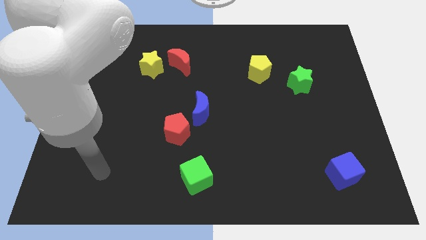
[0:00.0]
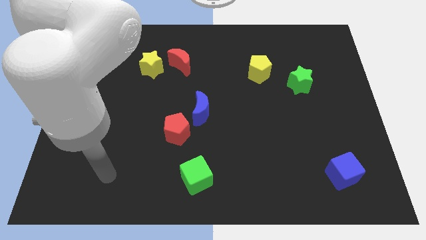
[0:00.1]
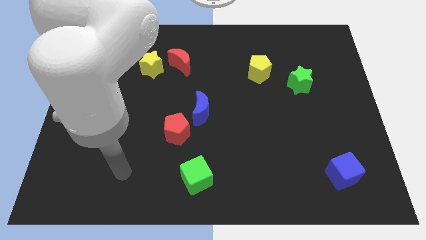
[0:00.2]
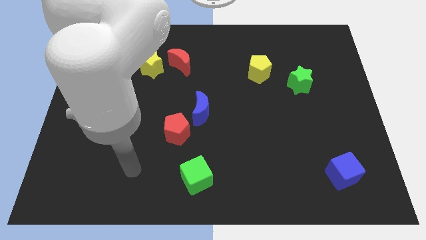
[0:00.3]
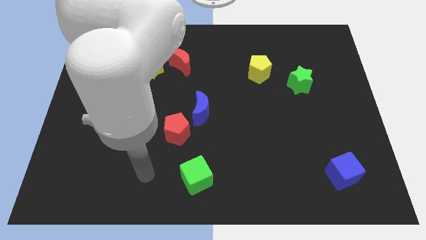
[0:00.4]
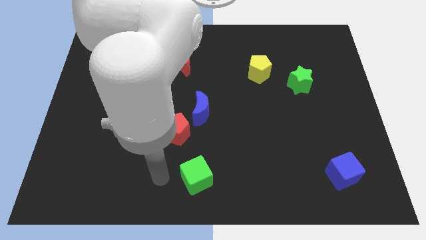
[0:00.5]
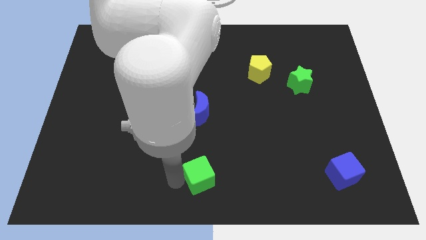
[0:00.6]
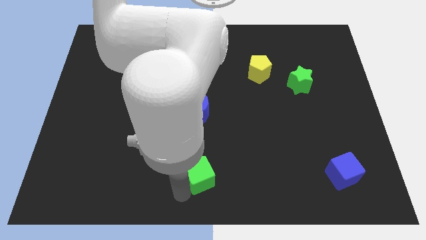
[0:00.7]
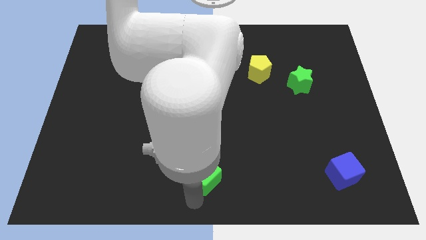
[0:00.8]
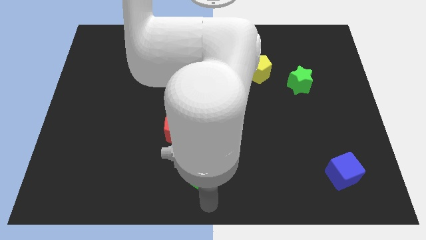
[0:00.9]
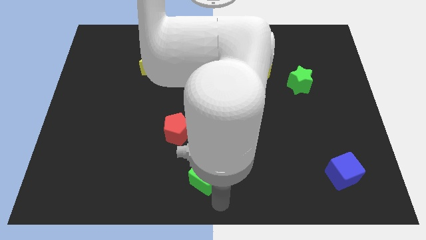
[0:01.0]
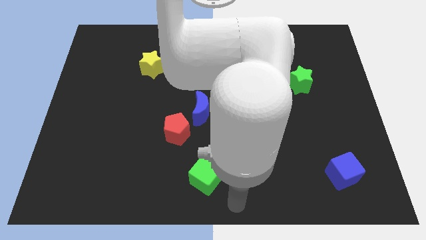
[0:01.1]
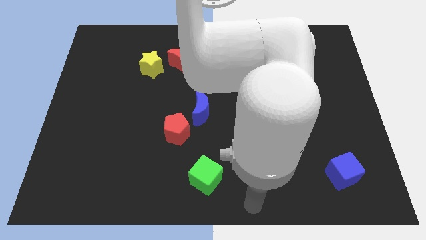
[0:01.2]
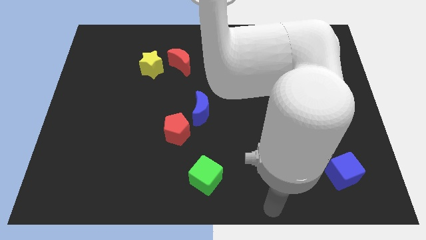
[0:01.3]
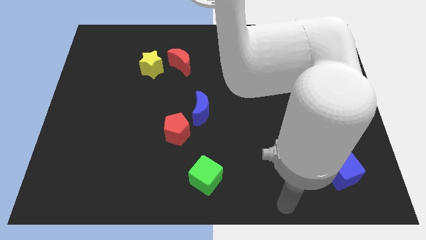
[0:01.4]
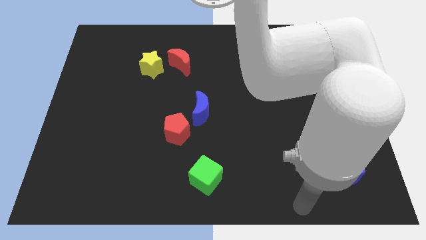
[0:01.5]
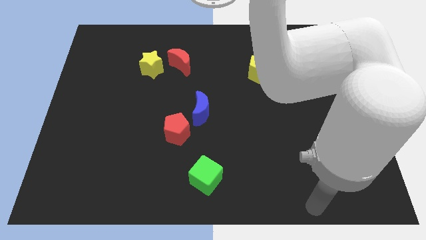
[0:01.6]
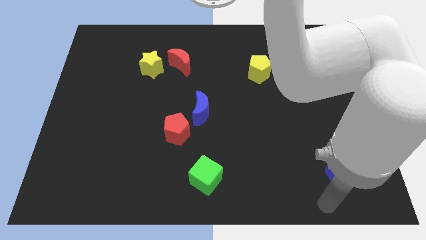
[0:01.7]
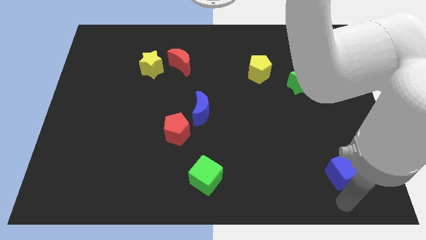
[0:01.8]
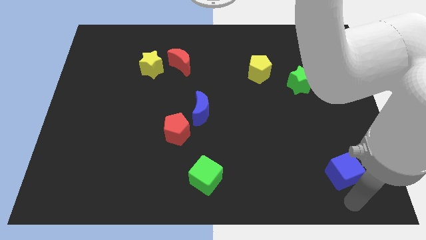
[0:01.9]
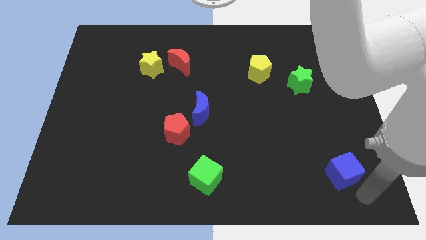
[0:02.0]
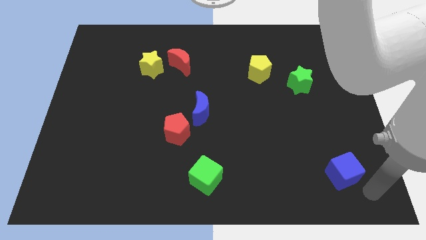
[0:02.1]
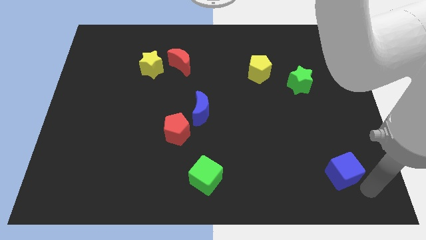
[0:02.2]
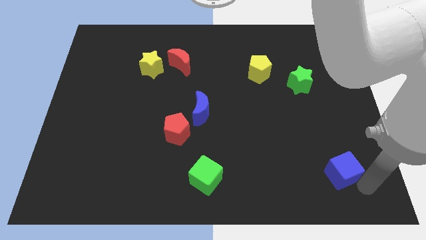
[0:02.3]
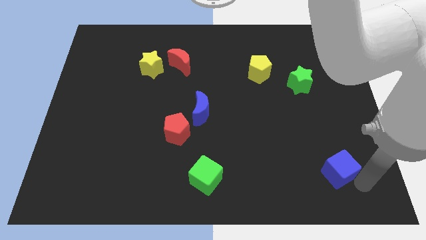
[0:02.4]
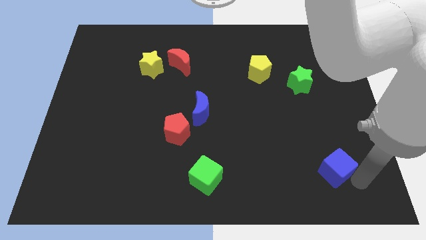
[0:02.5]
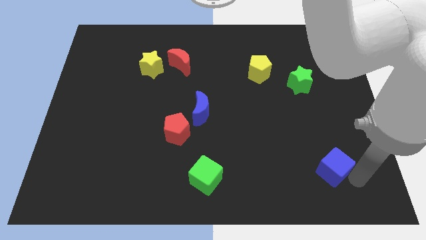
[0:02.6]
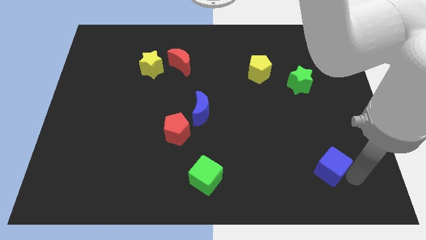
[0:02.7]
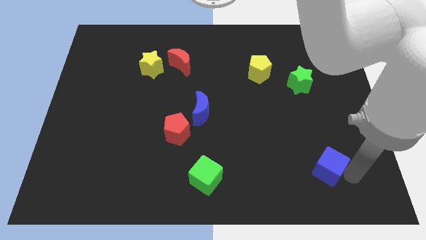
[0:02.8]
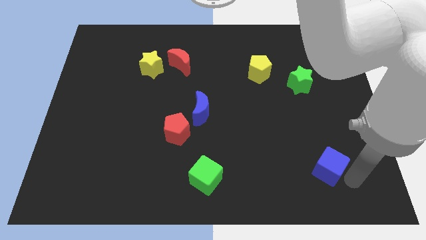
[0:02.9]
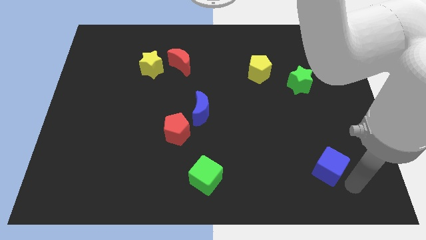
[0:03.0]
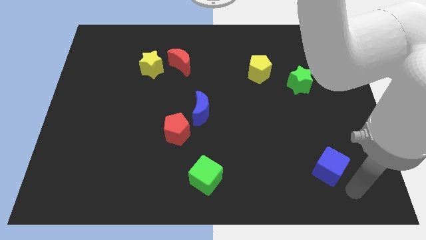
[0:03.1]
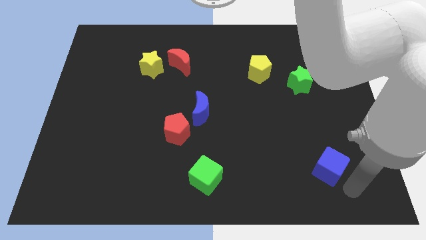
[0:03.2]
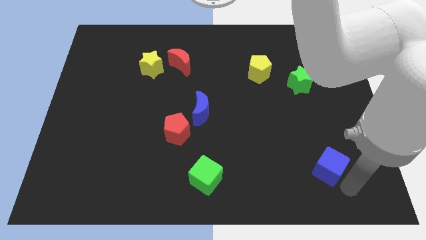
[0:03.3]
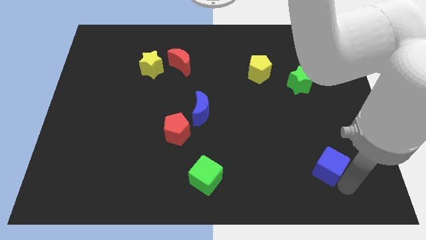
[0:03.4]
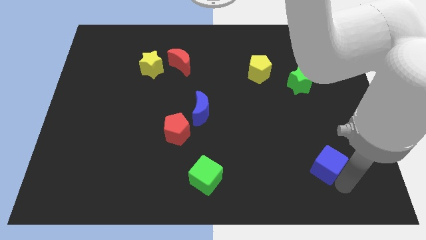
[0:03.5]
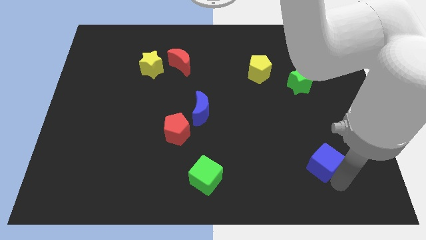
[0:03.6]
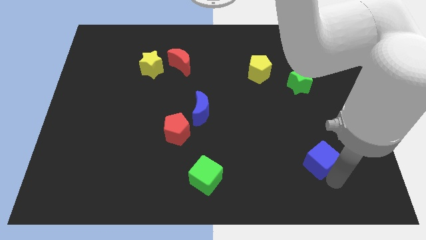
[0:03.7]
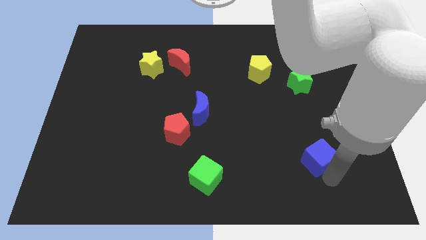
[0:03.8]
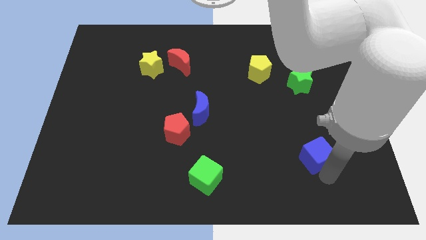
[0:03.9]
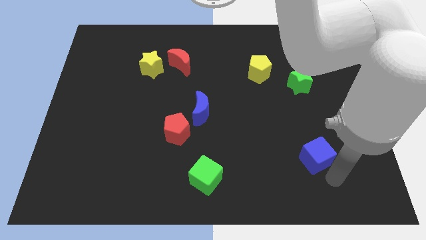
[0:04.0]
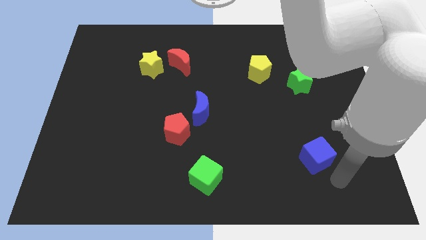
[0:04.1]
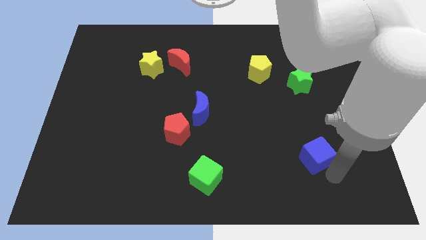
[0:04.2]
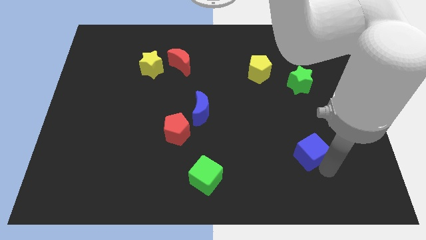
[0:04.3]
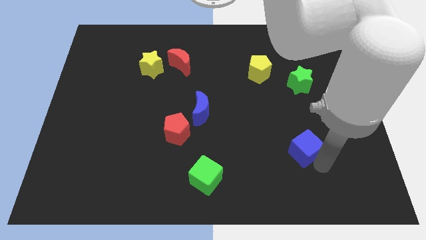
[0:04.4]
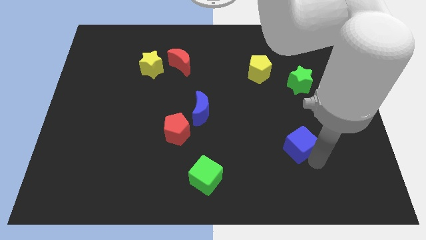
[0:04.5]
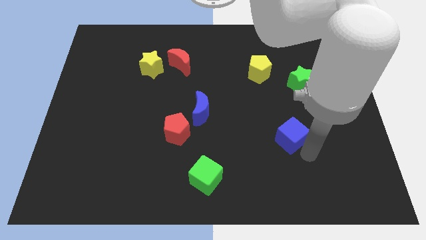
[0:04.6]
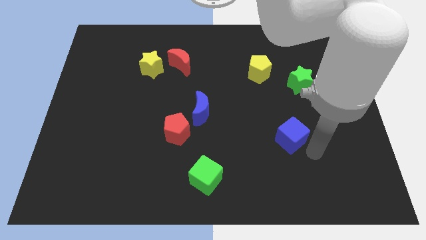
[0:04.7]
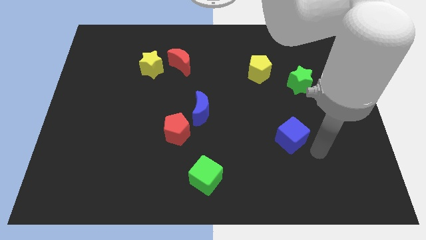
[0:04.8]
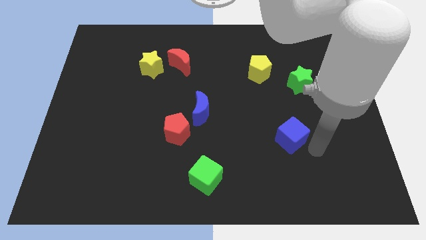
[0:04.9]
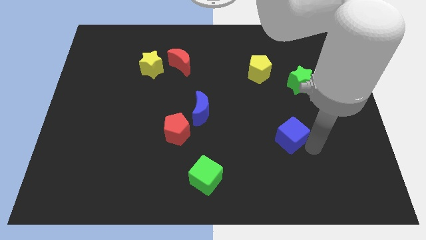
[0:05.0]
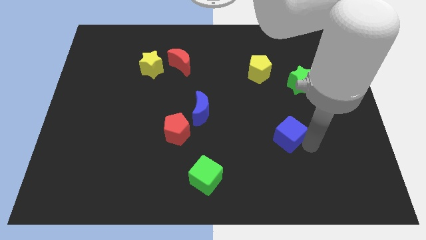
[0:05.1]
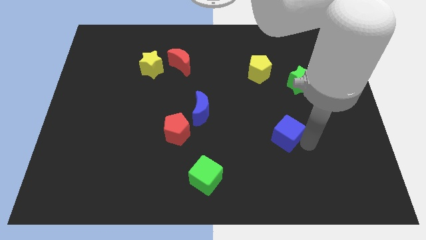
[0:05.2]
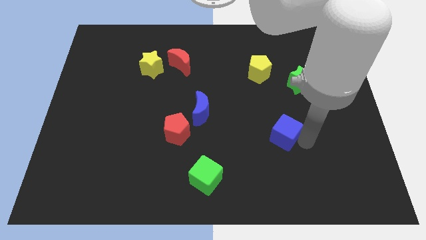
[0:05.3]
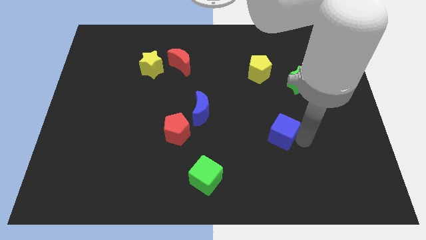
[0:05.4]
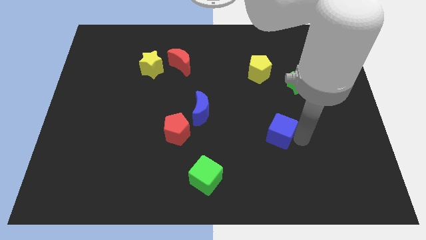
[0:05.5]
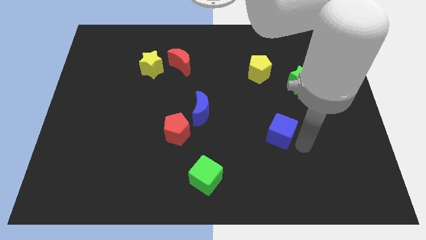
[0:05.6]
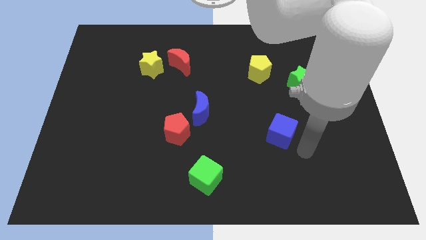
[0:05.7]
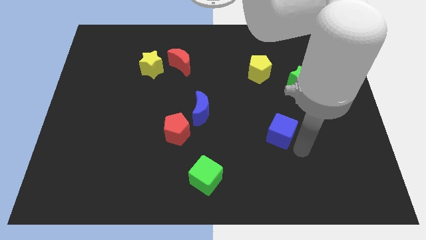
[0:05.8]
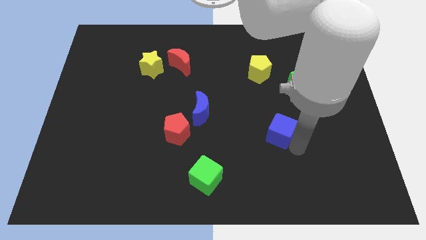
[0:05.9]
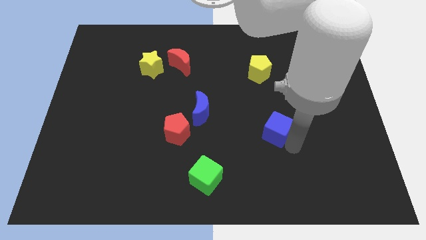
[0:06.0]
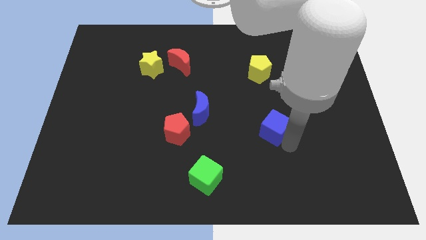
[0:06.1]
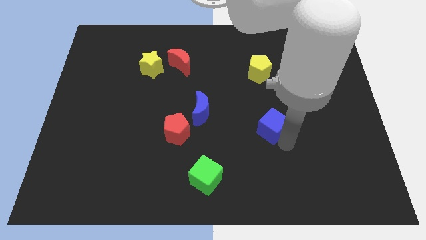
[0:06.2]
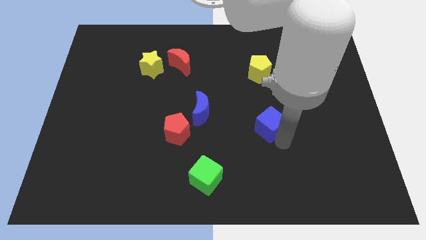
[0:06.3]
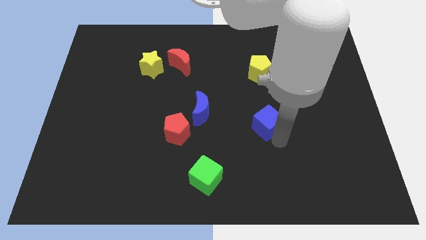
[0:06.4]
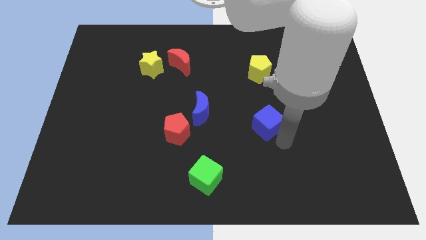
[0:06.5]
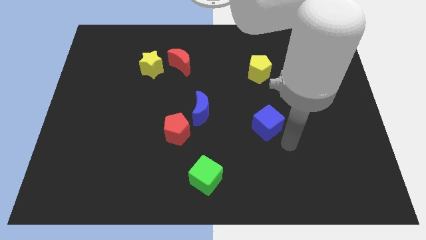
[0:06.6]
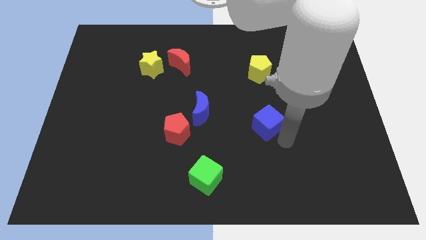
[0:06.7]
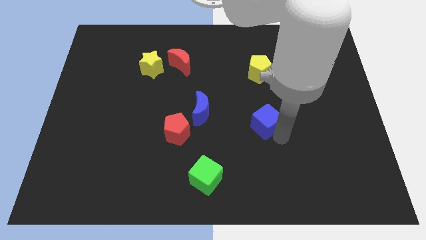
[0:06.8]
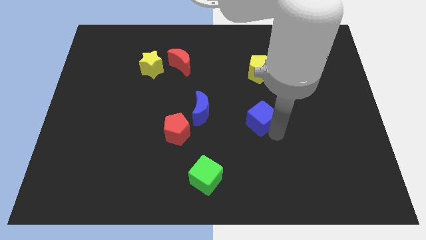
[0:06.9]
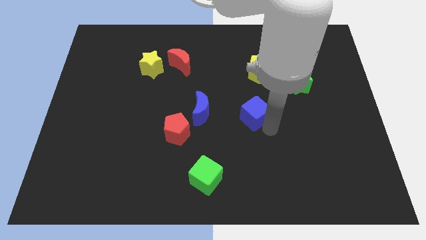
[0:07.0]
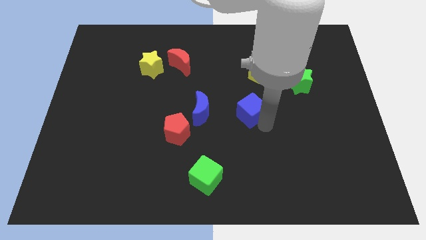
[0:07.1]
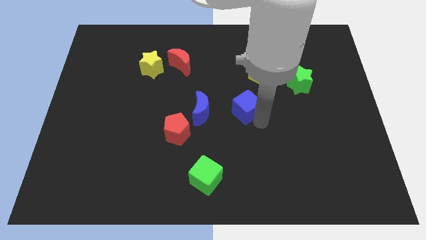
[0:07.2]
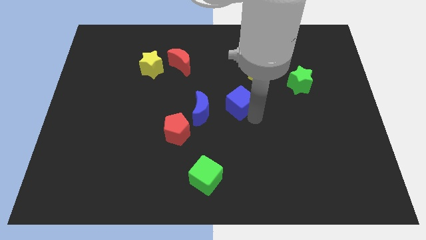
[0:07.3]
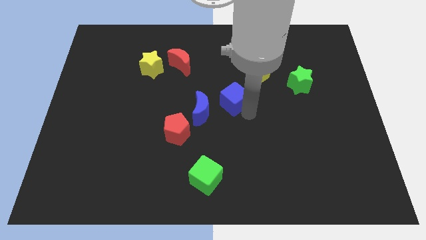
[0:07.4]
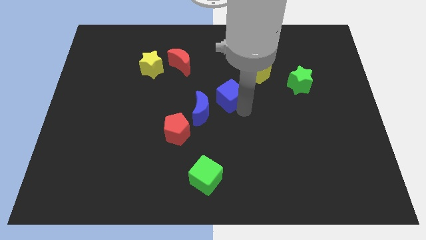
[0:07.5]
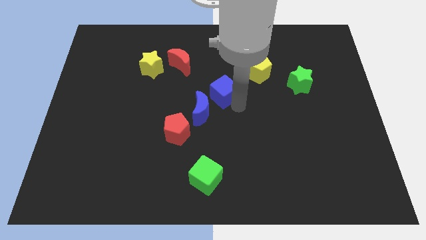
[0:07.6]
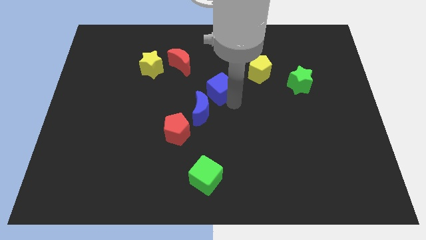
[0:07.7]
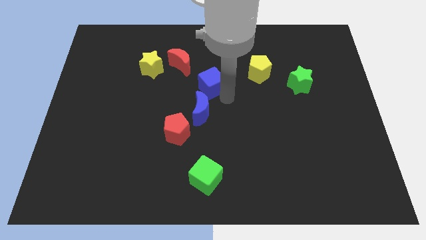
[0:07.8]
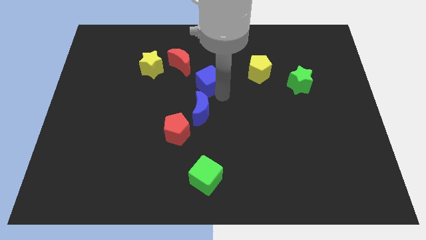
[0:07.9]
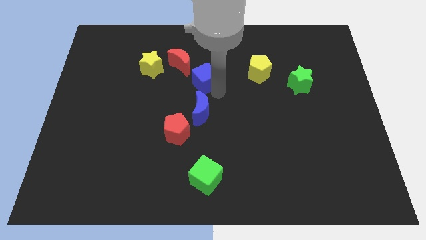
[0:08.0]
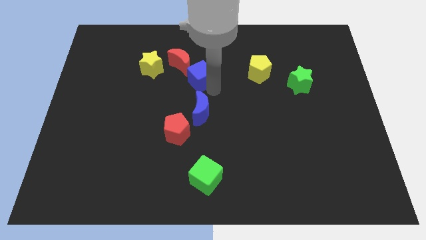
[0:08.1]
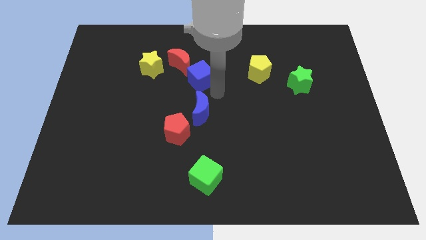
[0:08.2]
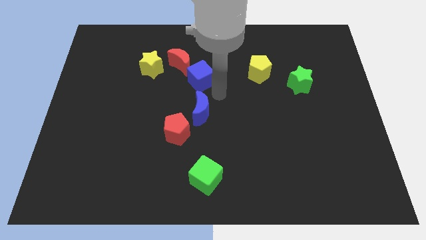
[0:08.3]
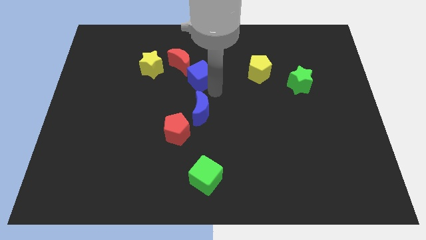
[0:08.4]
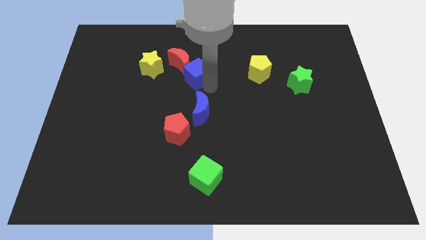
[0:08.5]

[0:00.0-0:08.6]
put the blue cube close to the red moon
